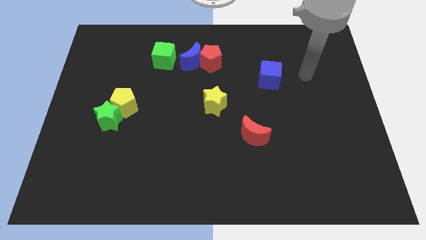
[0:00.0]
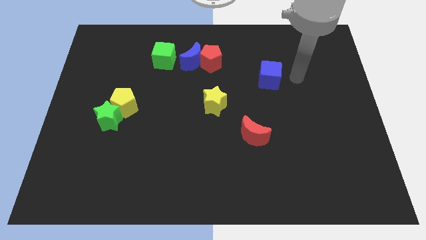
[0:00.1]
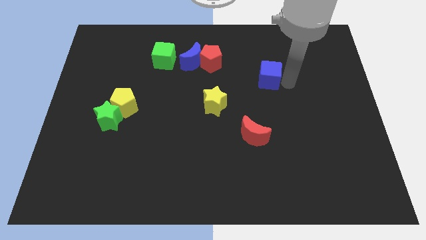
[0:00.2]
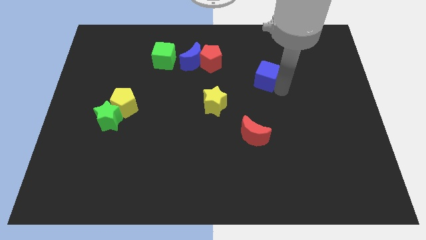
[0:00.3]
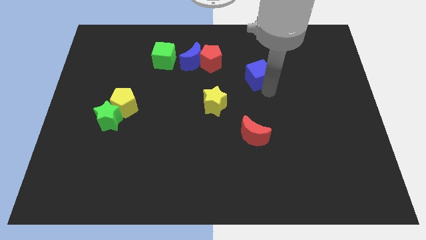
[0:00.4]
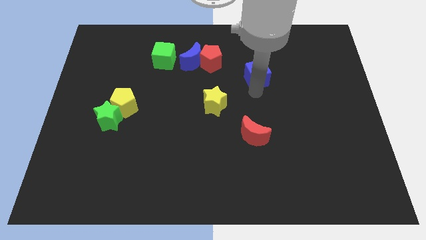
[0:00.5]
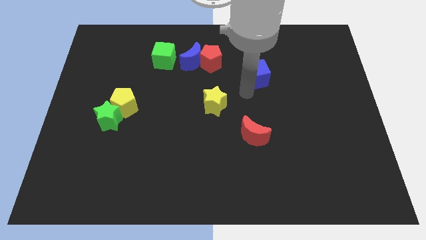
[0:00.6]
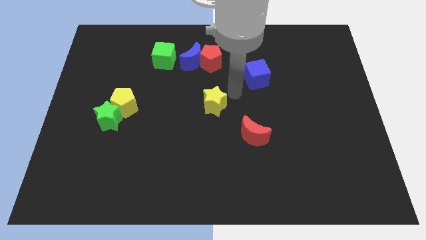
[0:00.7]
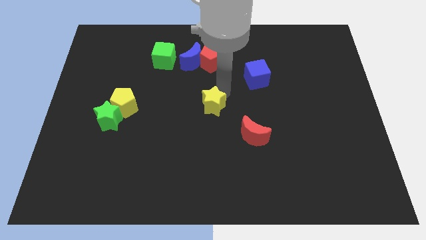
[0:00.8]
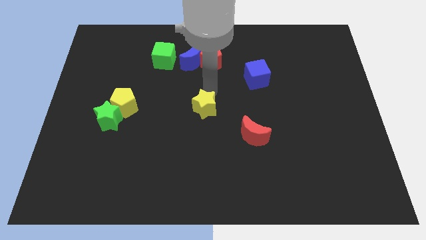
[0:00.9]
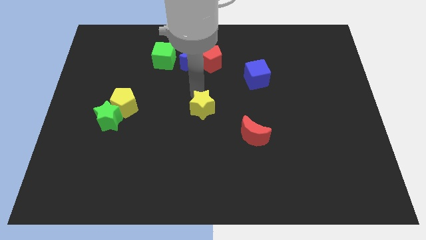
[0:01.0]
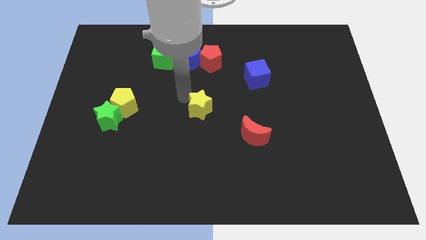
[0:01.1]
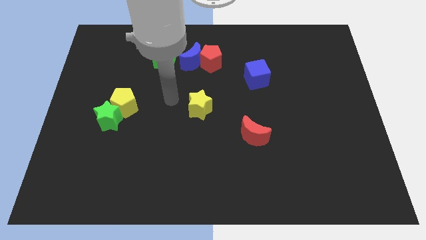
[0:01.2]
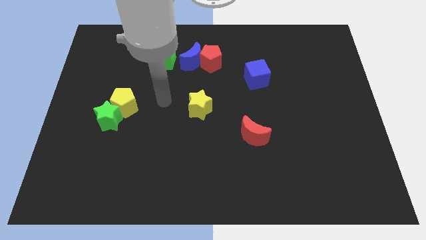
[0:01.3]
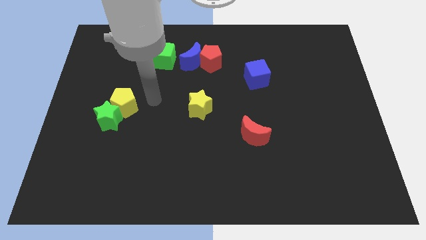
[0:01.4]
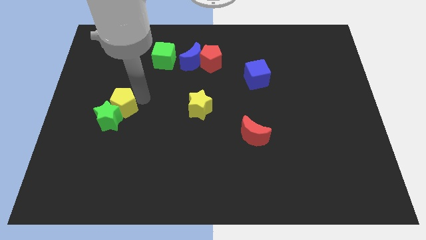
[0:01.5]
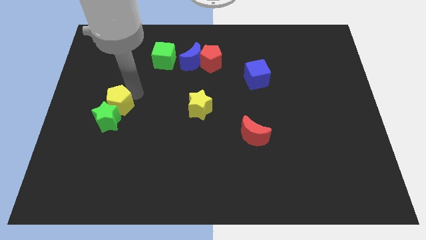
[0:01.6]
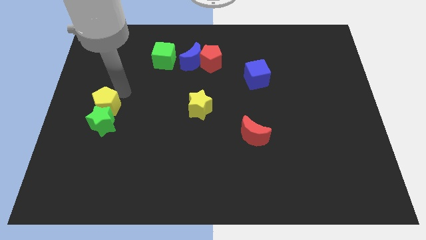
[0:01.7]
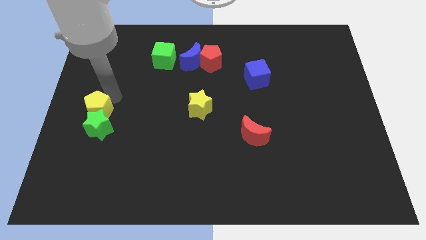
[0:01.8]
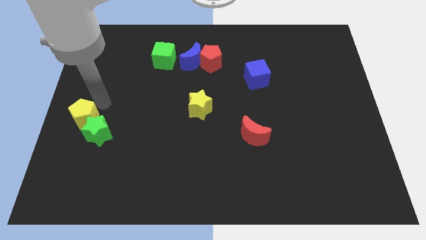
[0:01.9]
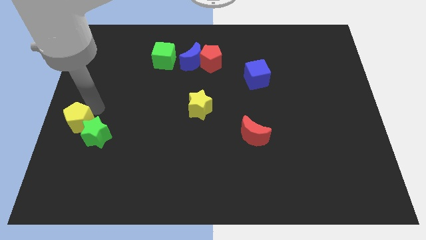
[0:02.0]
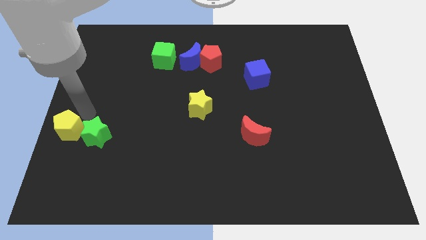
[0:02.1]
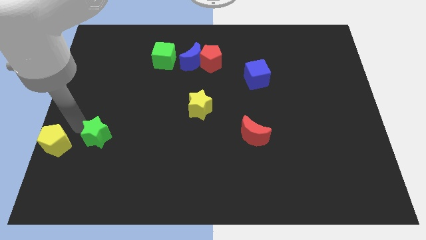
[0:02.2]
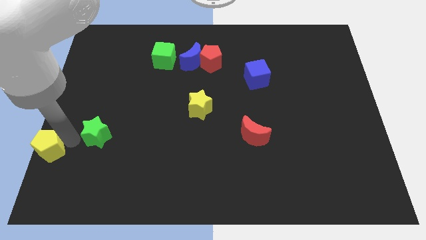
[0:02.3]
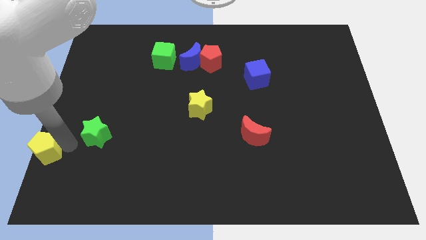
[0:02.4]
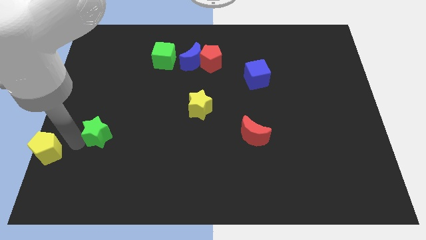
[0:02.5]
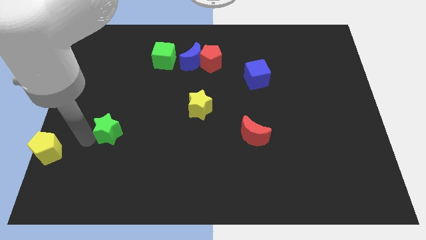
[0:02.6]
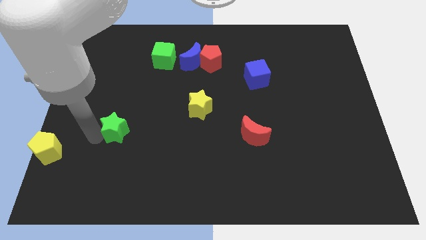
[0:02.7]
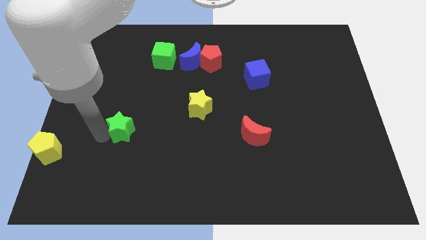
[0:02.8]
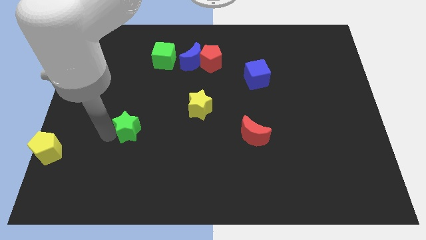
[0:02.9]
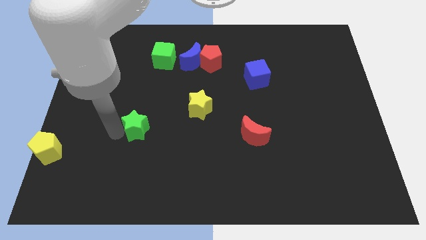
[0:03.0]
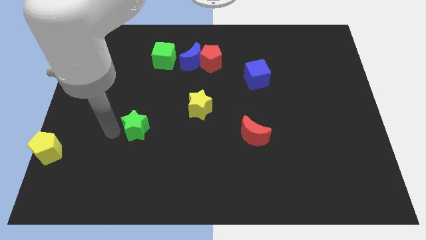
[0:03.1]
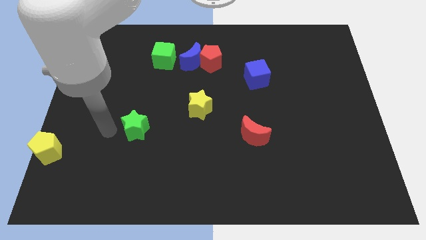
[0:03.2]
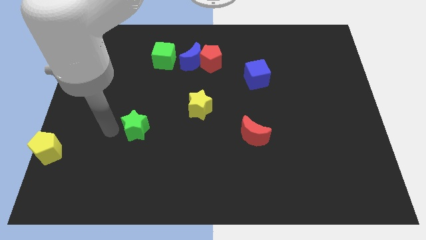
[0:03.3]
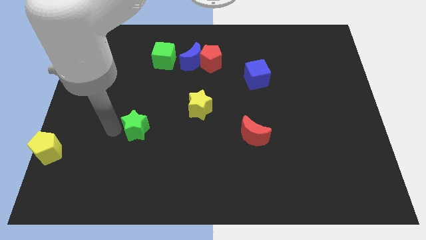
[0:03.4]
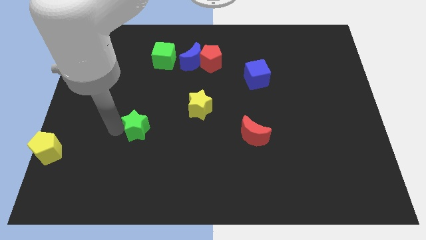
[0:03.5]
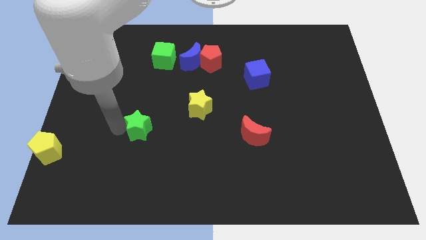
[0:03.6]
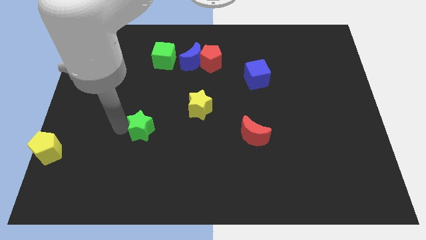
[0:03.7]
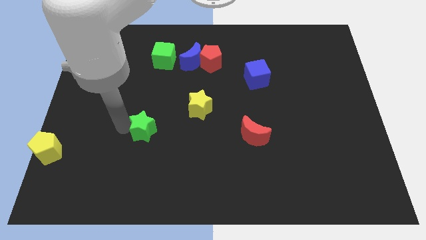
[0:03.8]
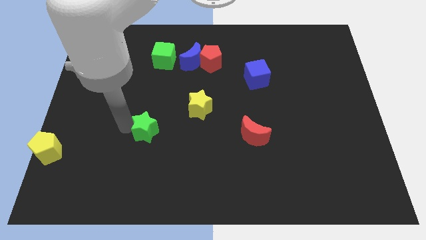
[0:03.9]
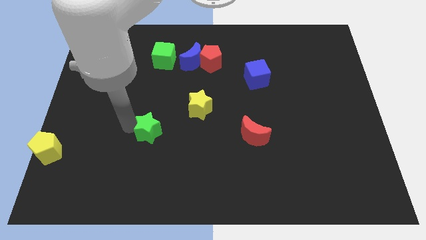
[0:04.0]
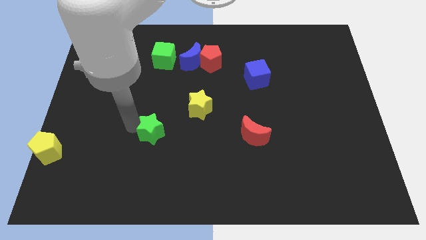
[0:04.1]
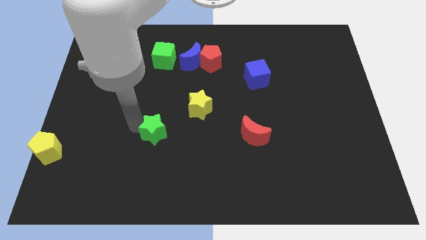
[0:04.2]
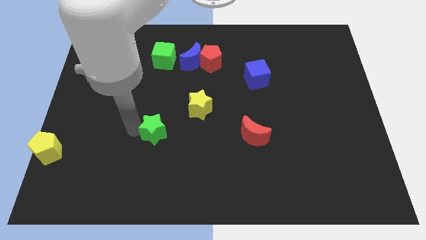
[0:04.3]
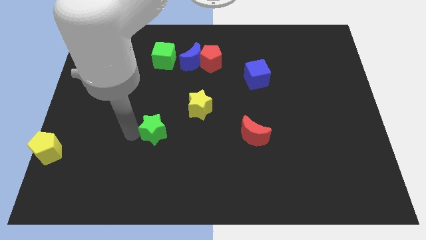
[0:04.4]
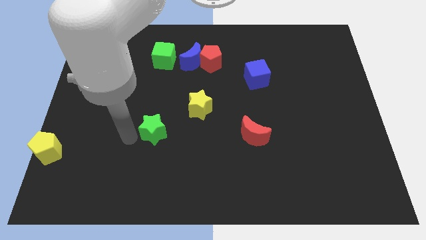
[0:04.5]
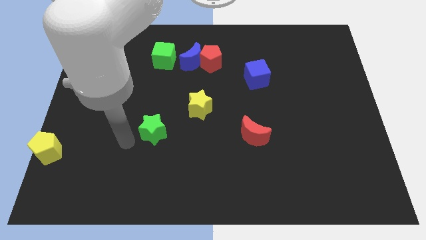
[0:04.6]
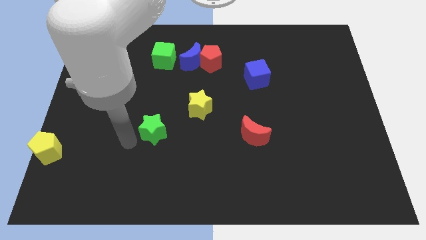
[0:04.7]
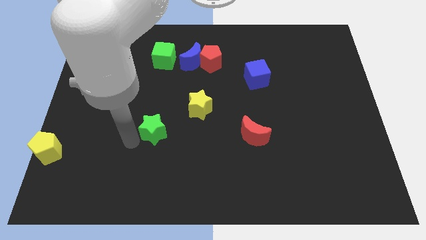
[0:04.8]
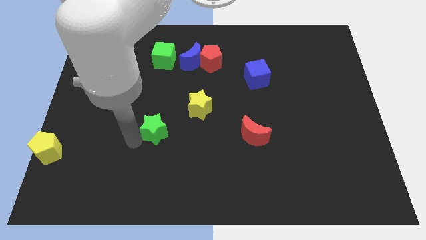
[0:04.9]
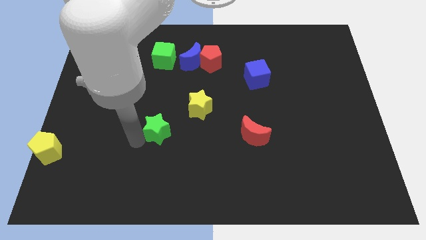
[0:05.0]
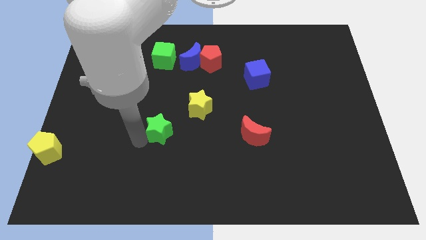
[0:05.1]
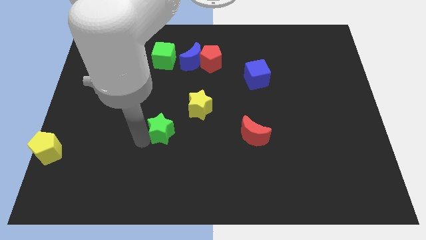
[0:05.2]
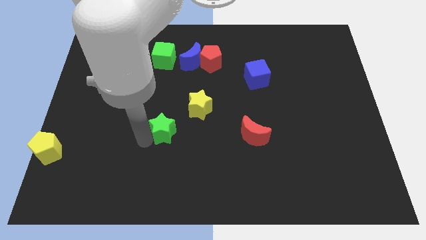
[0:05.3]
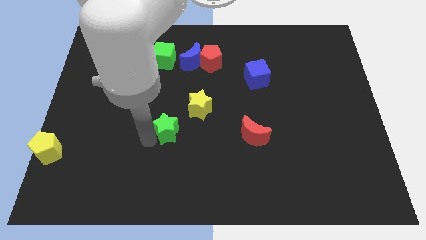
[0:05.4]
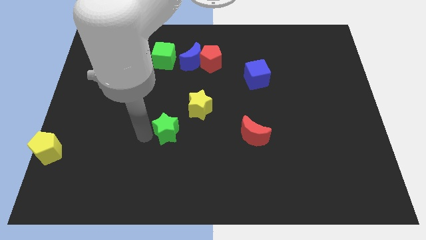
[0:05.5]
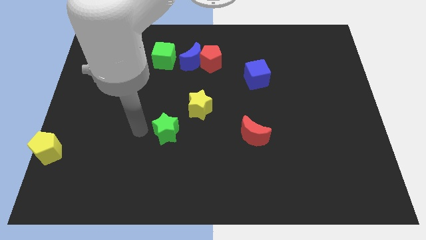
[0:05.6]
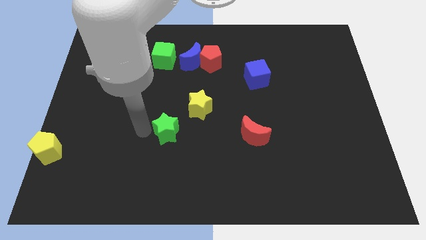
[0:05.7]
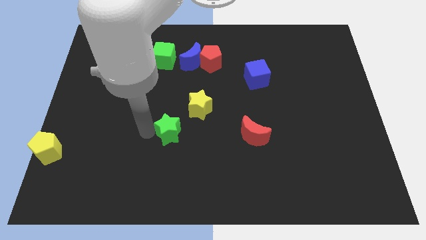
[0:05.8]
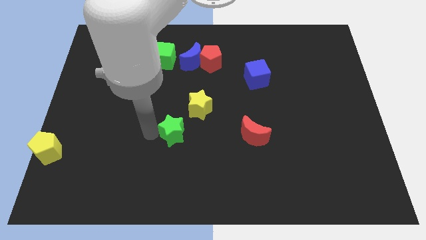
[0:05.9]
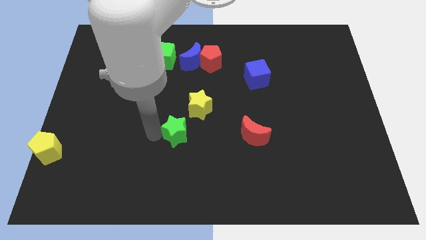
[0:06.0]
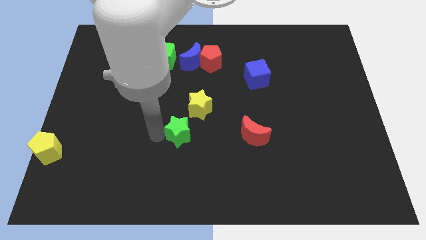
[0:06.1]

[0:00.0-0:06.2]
put the green star to the left side of the red moon

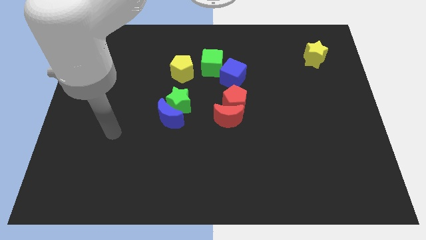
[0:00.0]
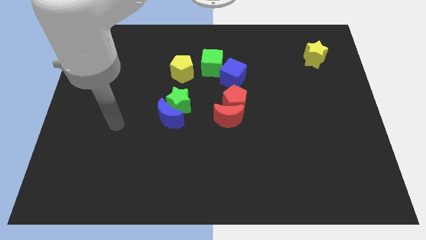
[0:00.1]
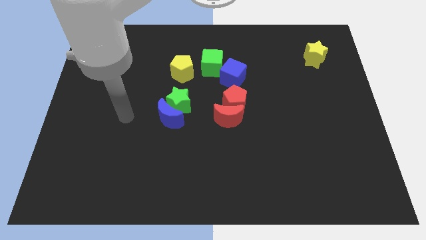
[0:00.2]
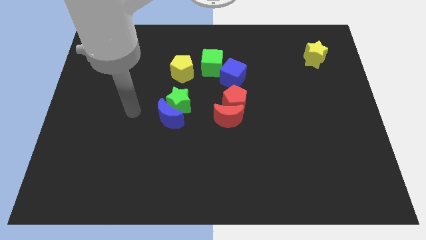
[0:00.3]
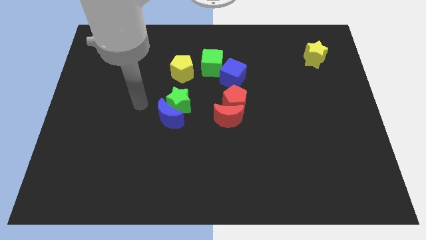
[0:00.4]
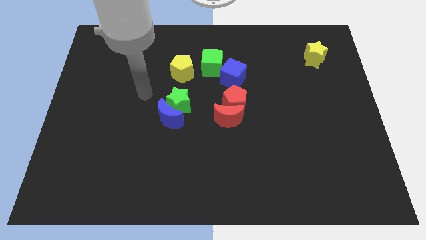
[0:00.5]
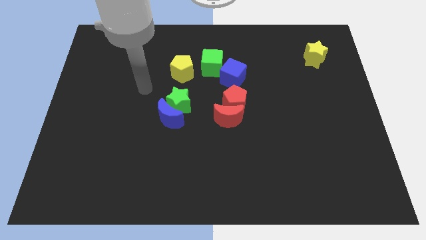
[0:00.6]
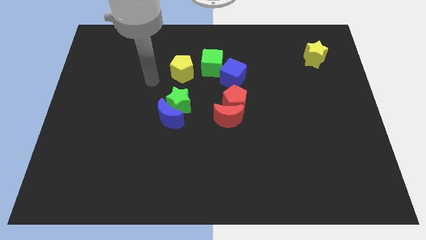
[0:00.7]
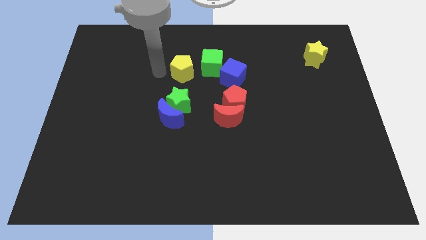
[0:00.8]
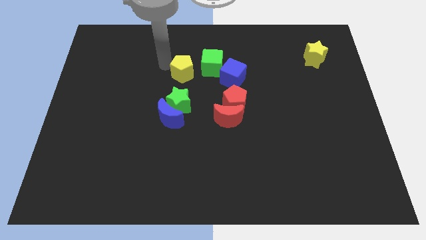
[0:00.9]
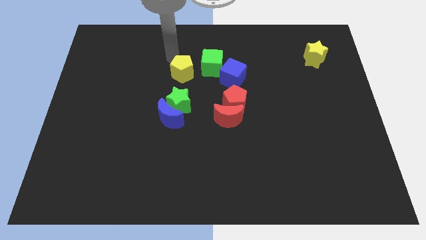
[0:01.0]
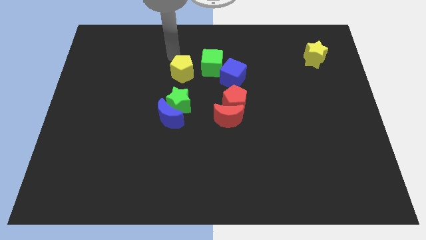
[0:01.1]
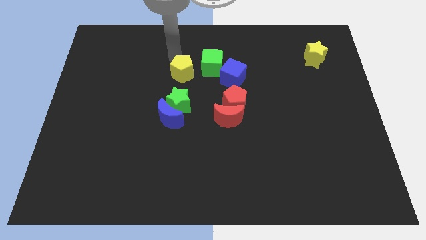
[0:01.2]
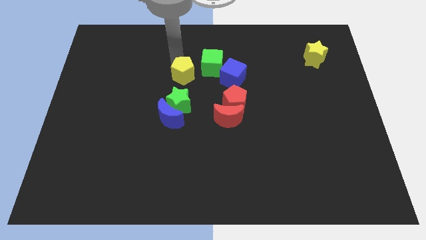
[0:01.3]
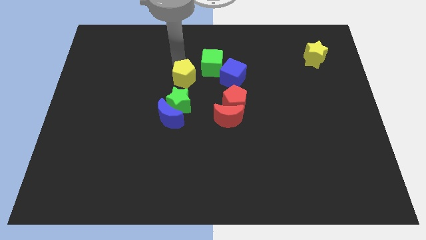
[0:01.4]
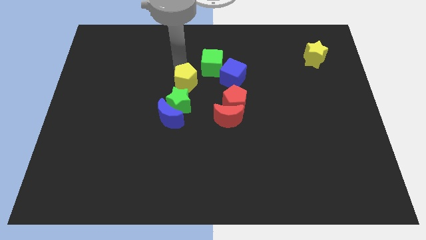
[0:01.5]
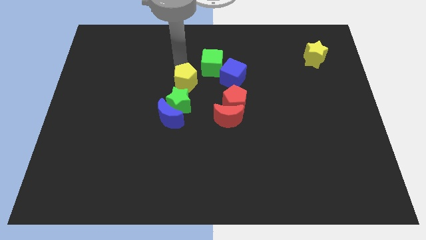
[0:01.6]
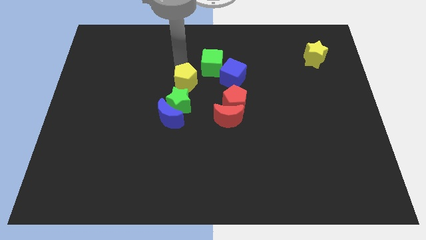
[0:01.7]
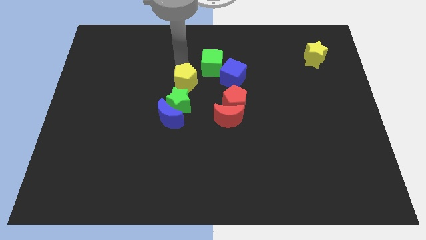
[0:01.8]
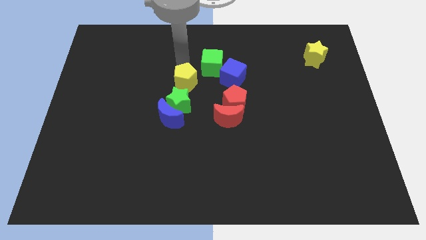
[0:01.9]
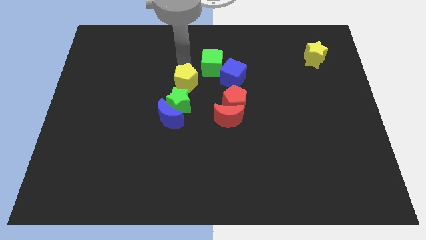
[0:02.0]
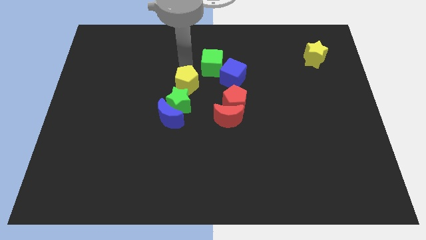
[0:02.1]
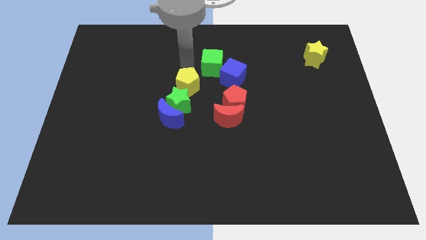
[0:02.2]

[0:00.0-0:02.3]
put the yellow pentagon to the top right of the blue moon

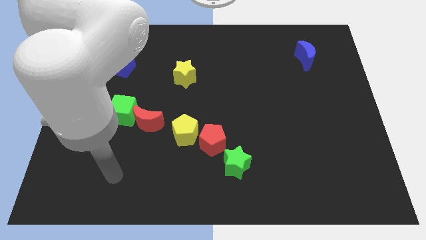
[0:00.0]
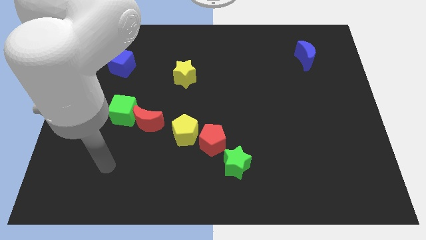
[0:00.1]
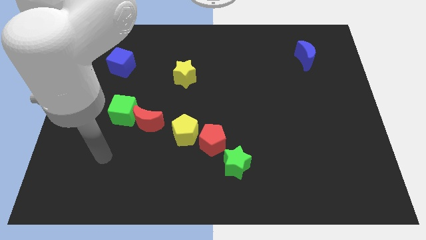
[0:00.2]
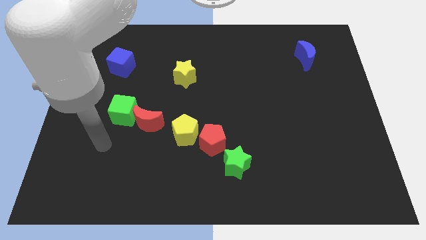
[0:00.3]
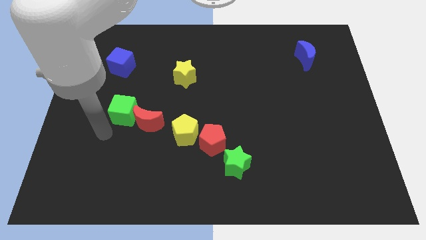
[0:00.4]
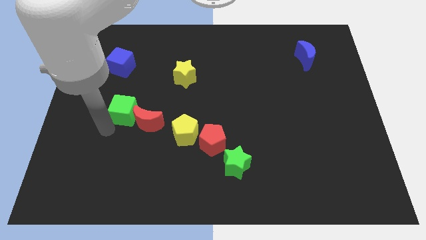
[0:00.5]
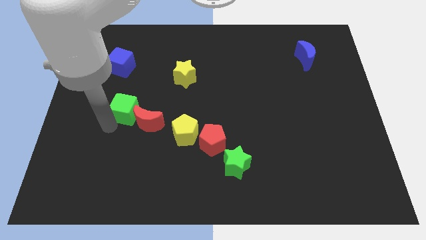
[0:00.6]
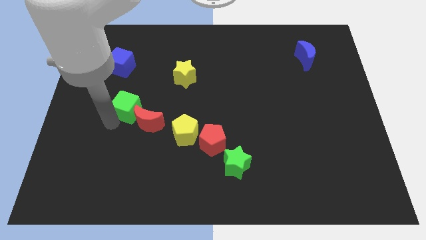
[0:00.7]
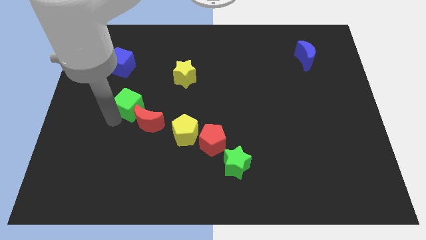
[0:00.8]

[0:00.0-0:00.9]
slide the green cube to the top side of the red moon
